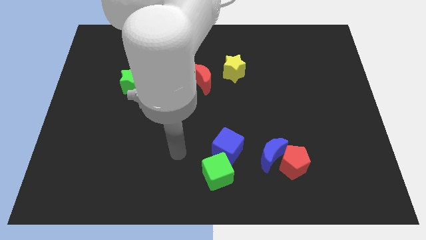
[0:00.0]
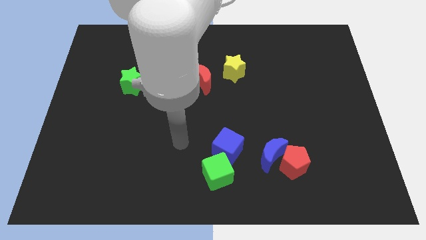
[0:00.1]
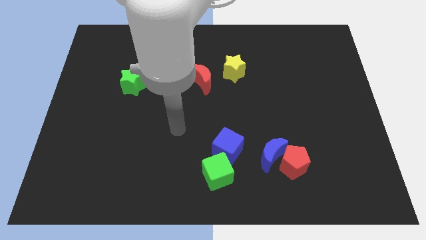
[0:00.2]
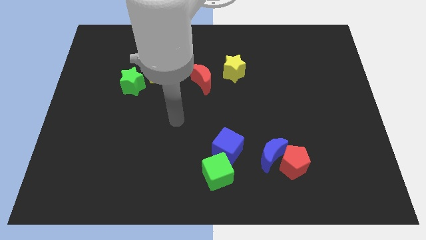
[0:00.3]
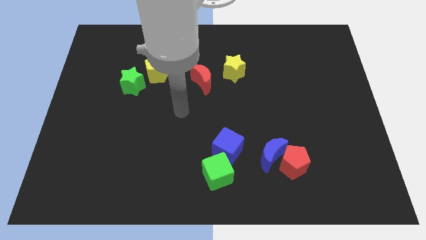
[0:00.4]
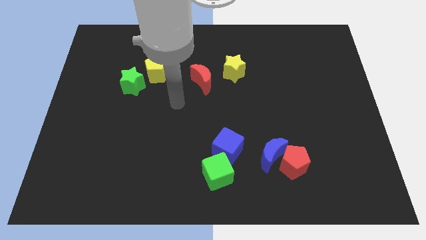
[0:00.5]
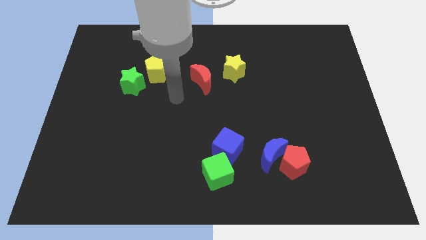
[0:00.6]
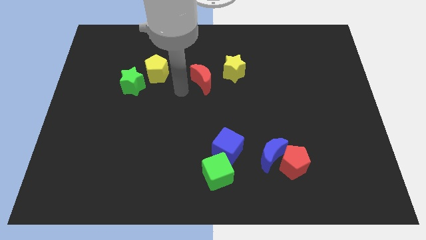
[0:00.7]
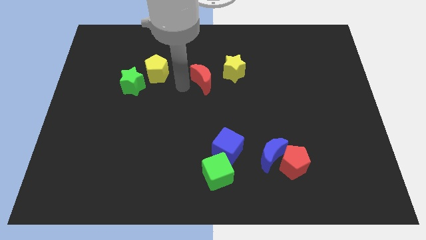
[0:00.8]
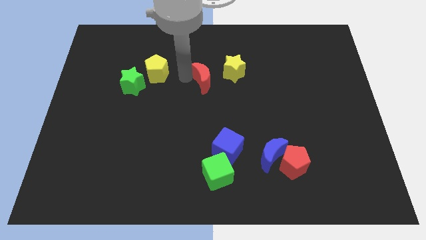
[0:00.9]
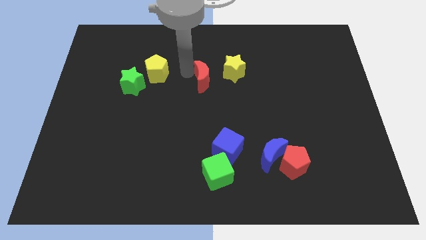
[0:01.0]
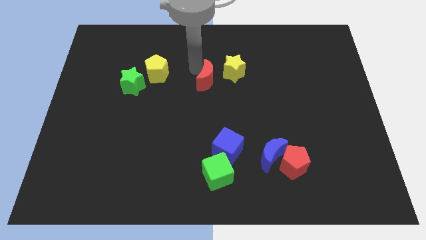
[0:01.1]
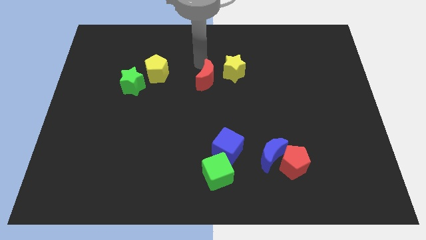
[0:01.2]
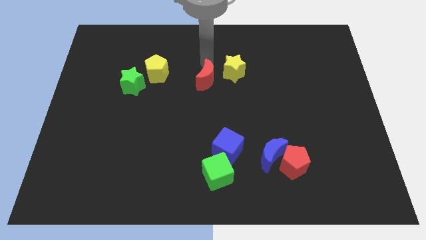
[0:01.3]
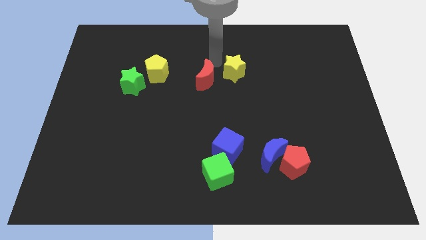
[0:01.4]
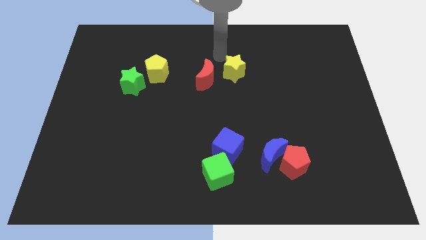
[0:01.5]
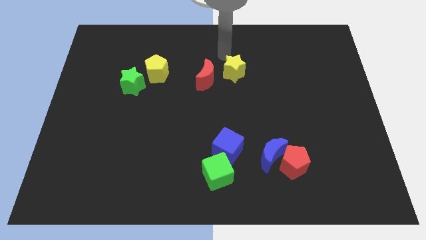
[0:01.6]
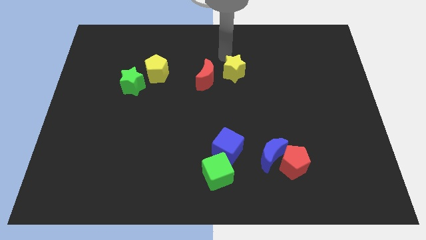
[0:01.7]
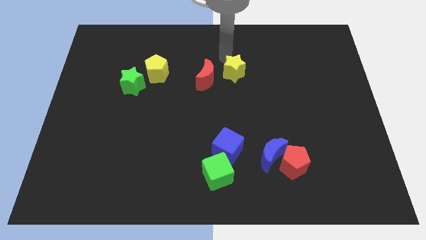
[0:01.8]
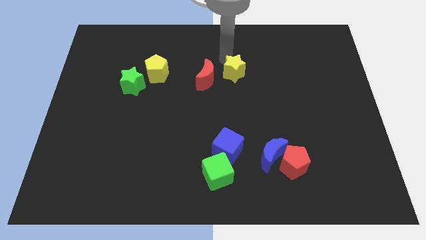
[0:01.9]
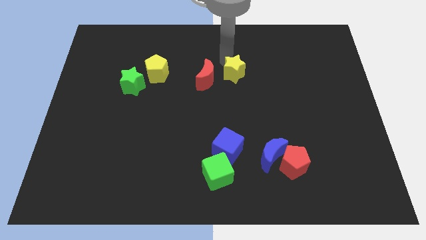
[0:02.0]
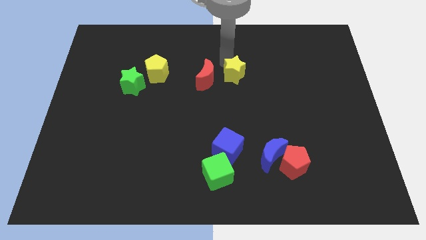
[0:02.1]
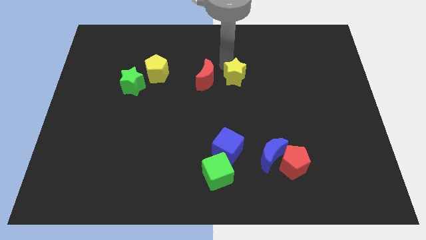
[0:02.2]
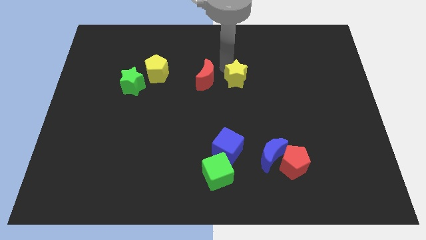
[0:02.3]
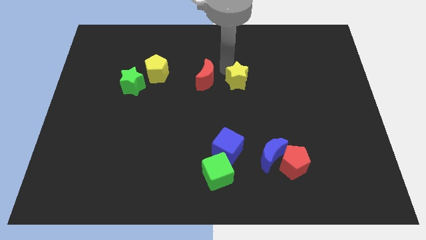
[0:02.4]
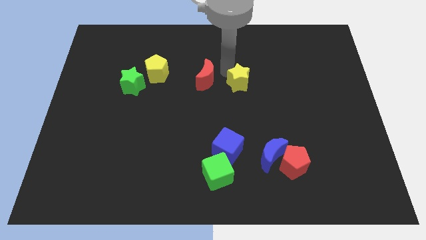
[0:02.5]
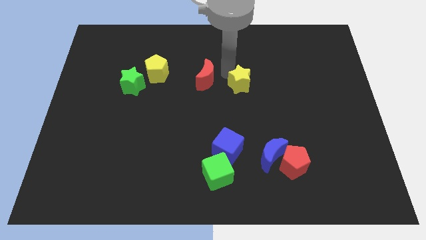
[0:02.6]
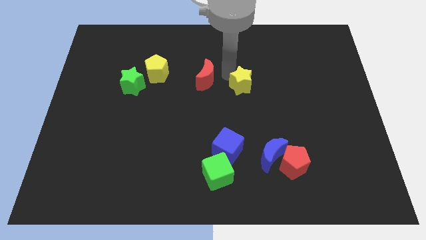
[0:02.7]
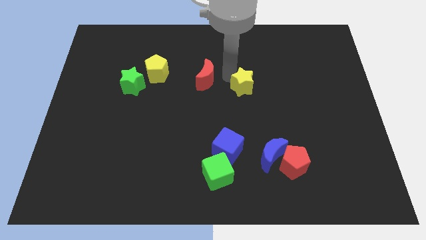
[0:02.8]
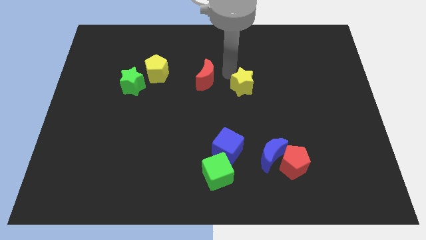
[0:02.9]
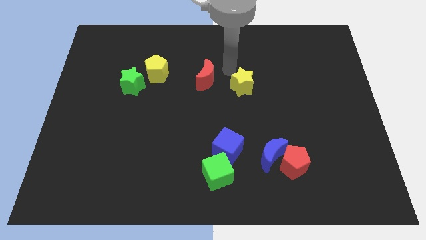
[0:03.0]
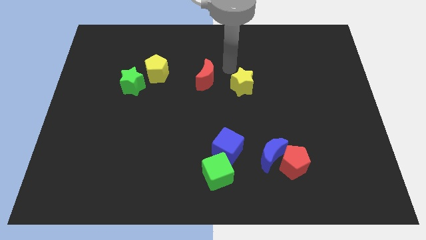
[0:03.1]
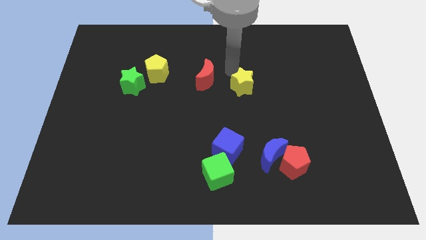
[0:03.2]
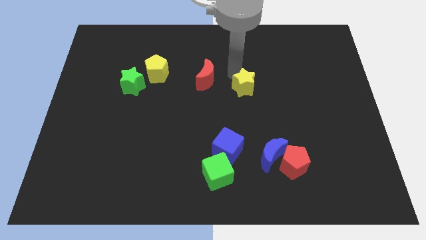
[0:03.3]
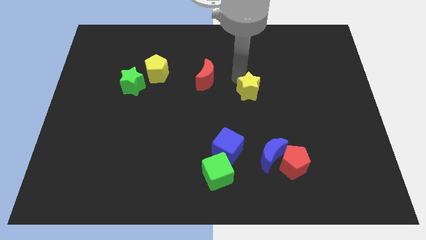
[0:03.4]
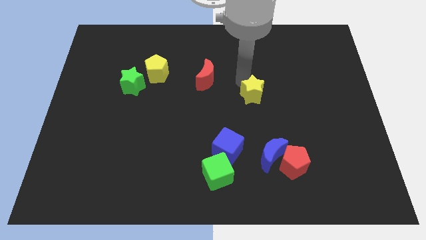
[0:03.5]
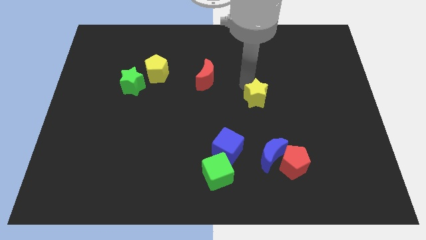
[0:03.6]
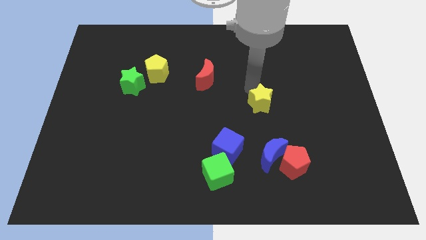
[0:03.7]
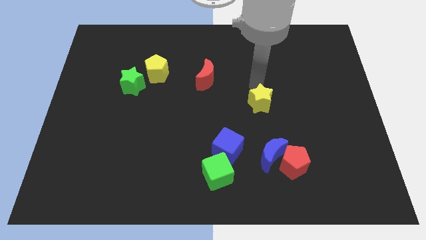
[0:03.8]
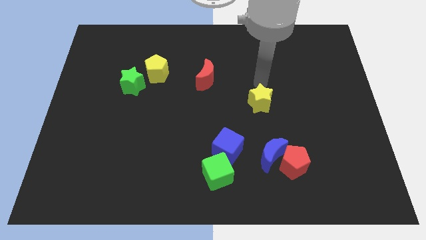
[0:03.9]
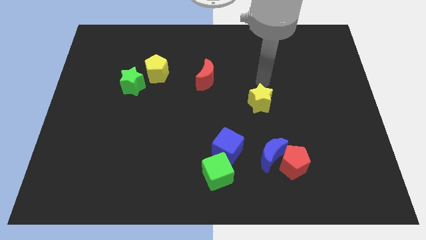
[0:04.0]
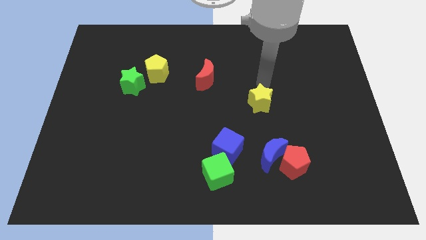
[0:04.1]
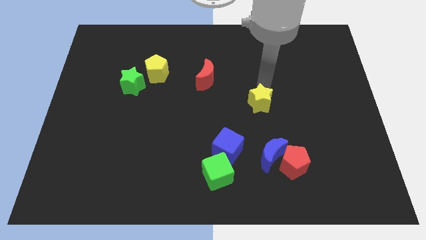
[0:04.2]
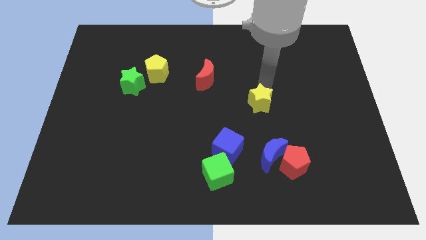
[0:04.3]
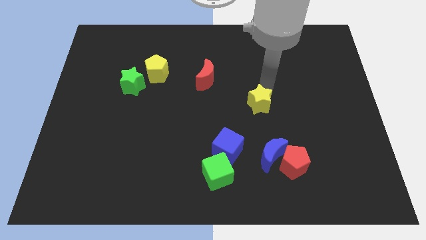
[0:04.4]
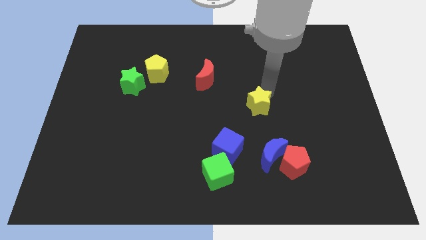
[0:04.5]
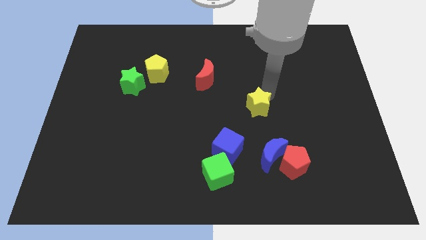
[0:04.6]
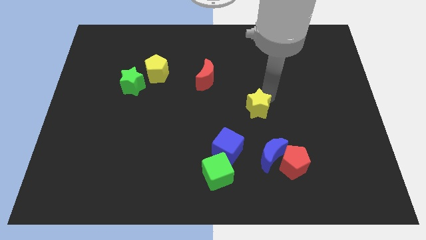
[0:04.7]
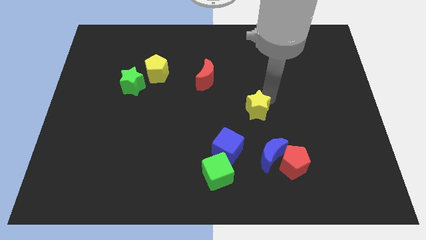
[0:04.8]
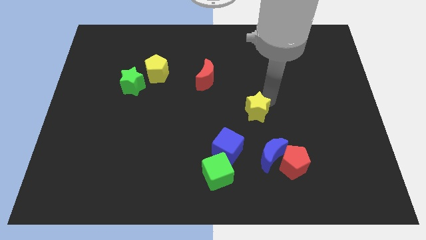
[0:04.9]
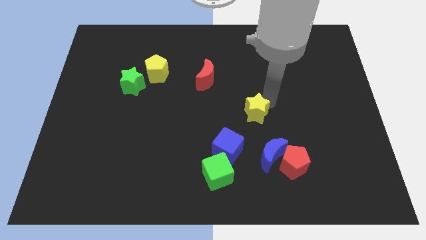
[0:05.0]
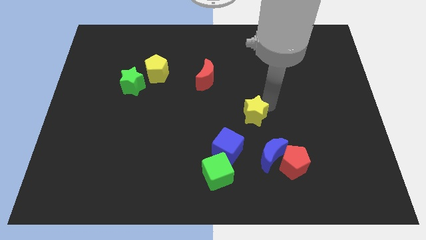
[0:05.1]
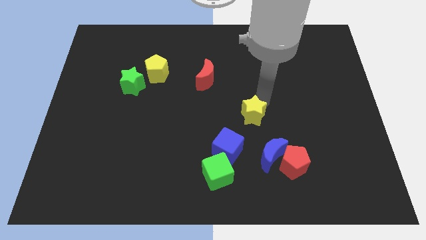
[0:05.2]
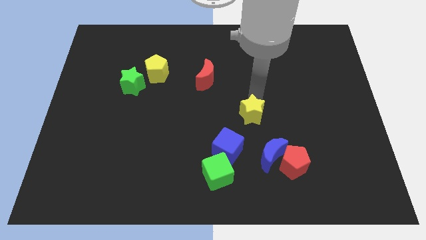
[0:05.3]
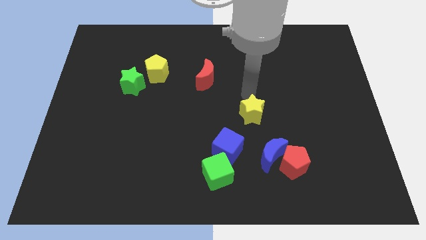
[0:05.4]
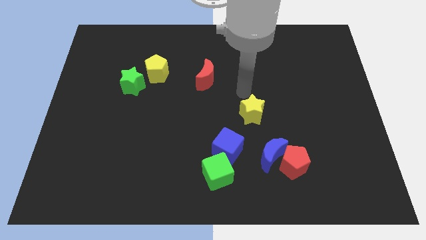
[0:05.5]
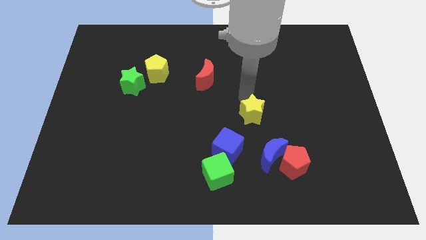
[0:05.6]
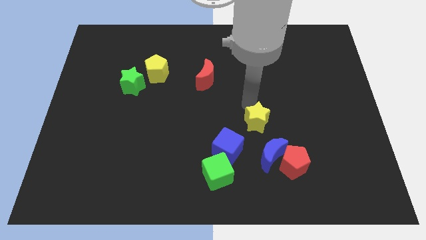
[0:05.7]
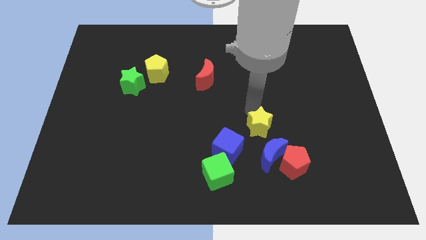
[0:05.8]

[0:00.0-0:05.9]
put the yellow star to the top left of the red pentagon

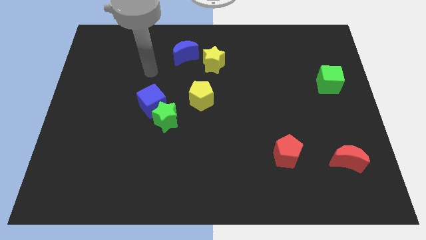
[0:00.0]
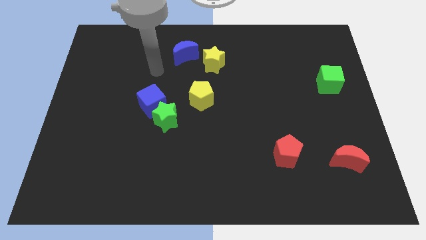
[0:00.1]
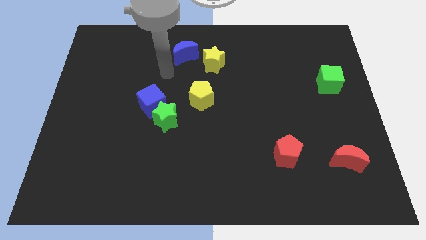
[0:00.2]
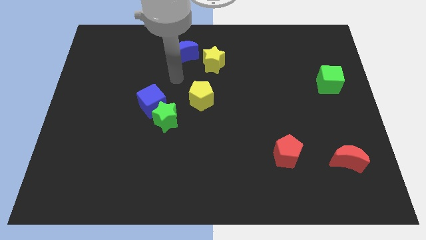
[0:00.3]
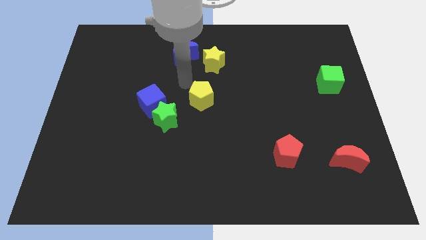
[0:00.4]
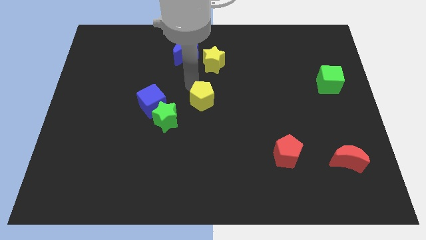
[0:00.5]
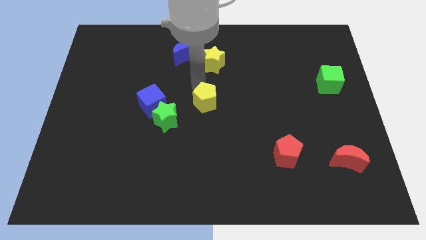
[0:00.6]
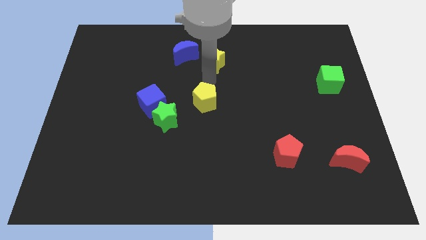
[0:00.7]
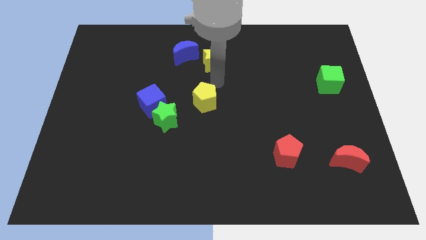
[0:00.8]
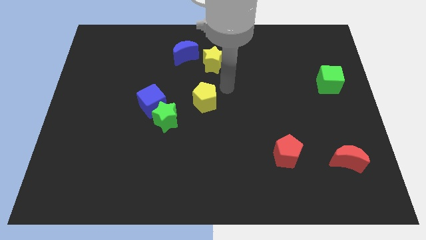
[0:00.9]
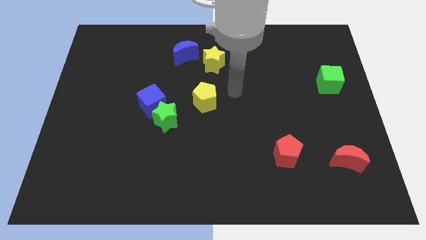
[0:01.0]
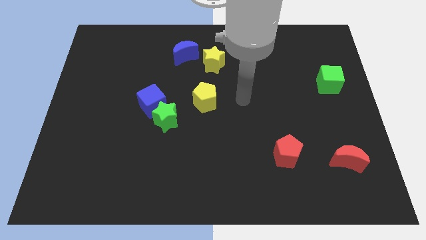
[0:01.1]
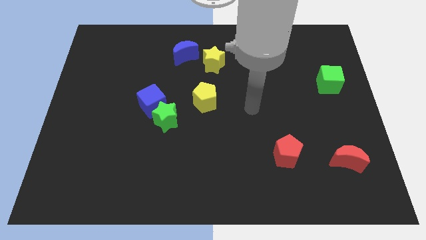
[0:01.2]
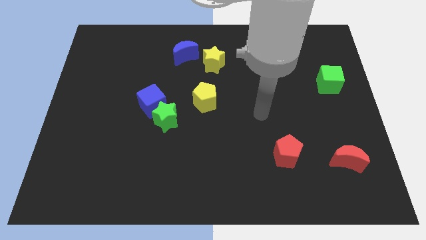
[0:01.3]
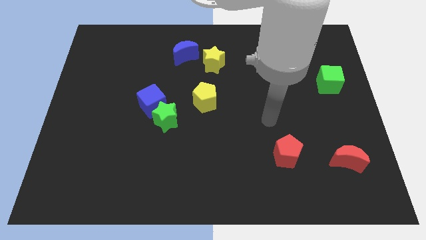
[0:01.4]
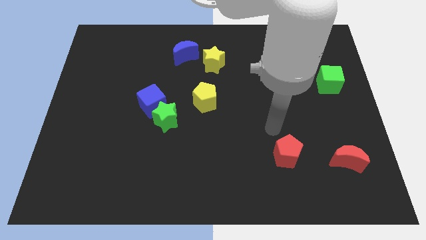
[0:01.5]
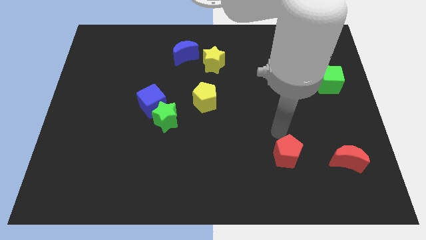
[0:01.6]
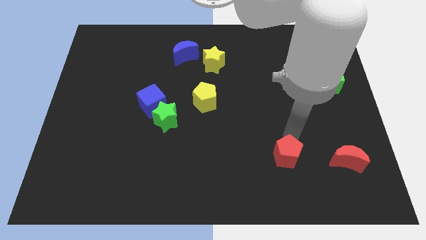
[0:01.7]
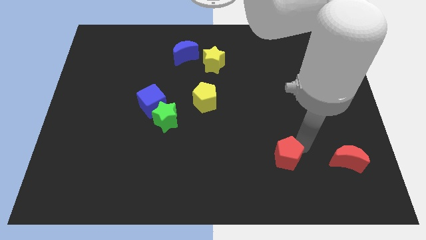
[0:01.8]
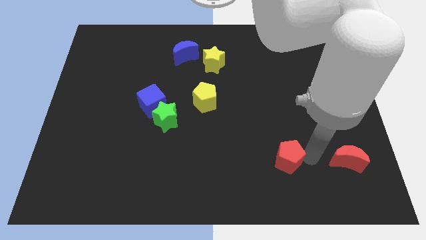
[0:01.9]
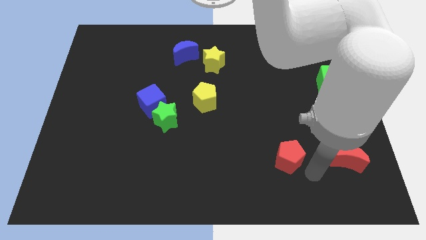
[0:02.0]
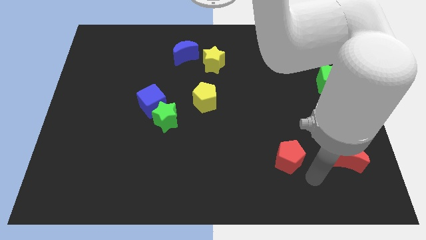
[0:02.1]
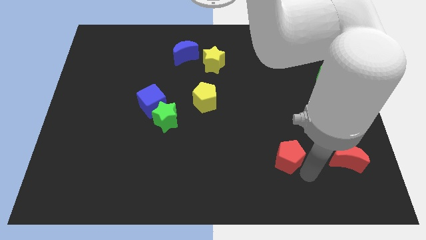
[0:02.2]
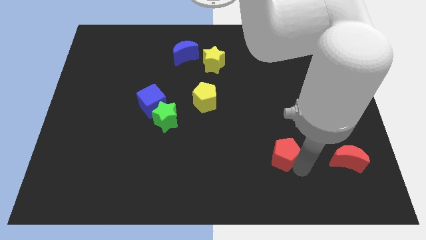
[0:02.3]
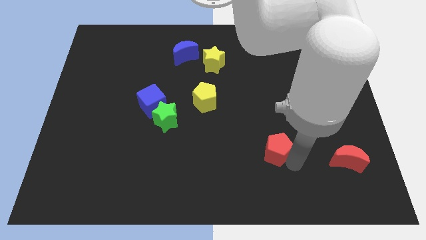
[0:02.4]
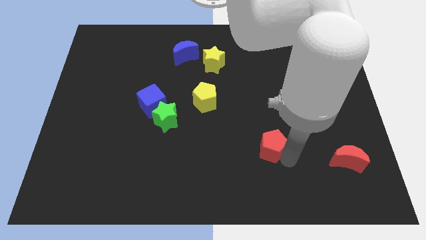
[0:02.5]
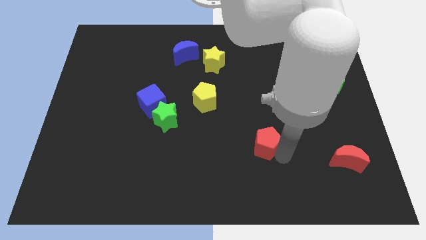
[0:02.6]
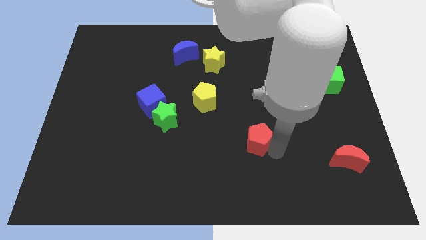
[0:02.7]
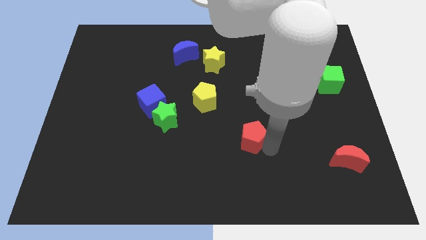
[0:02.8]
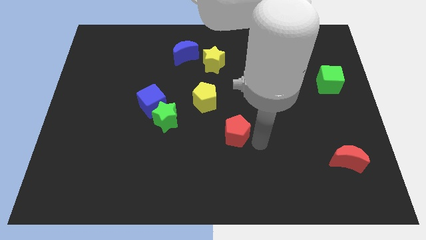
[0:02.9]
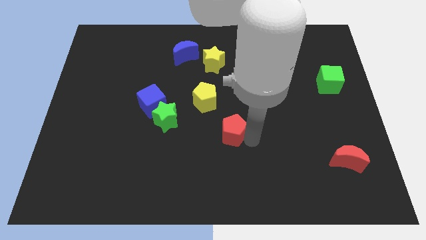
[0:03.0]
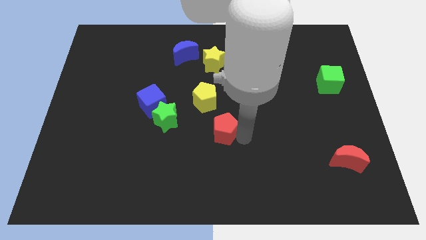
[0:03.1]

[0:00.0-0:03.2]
put the red pentagon just right of the green star
